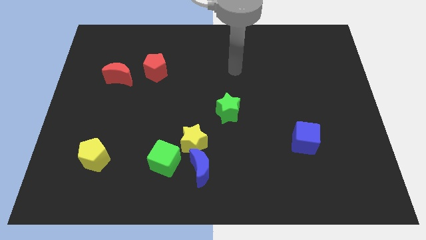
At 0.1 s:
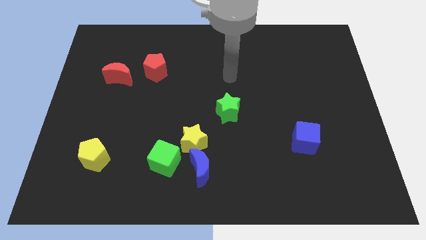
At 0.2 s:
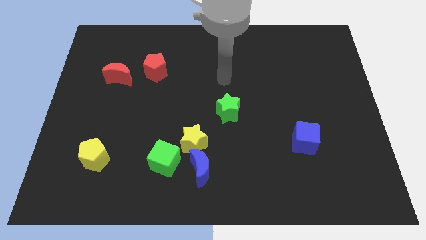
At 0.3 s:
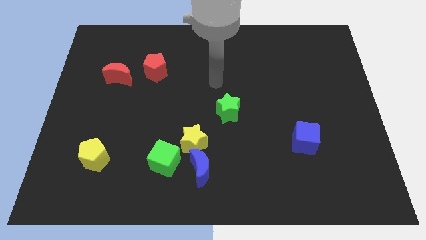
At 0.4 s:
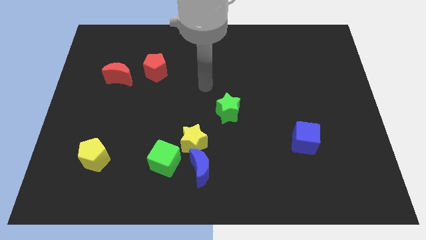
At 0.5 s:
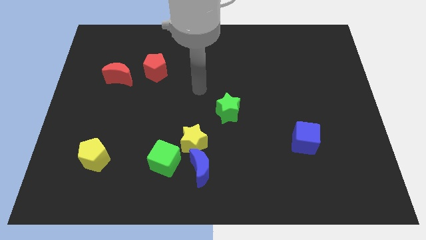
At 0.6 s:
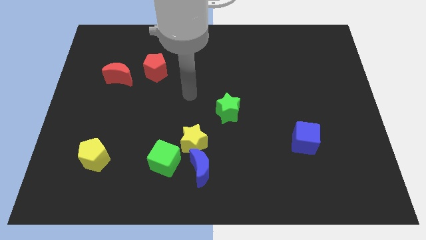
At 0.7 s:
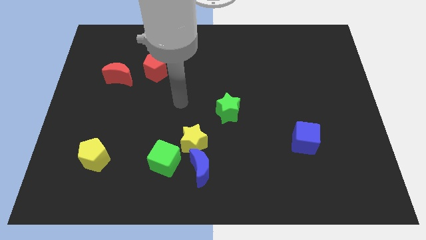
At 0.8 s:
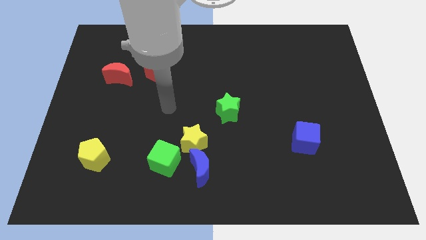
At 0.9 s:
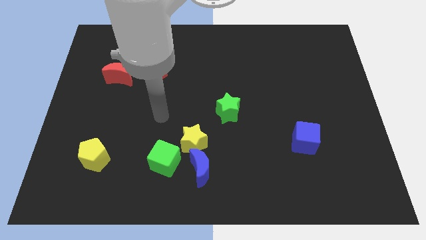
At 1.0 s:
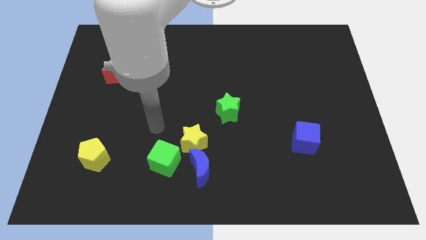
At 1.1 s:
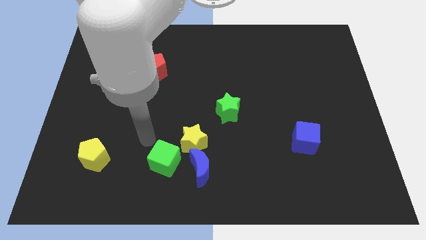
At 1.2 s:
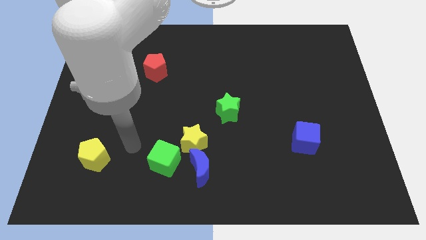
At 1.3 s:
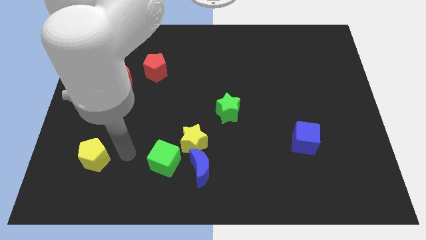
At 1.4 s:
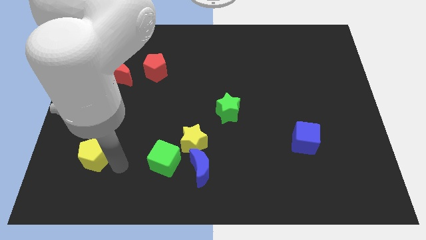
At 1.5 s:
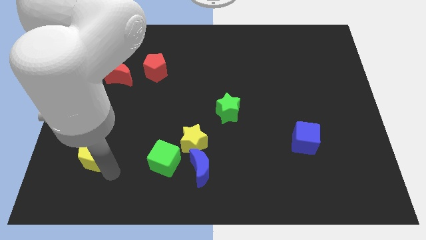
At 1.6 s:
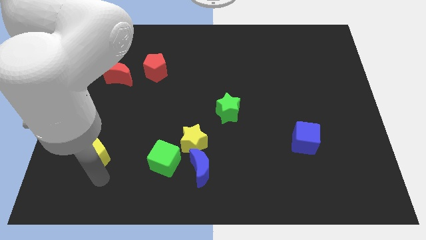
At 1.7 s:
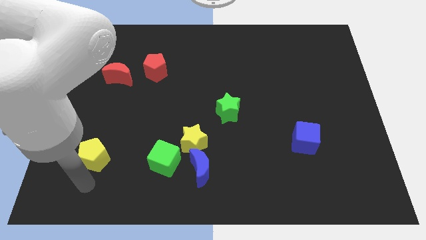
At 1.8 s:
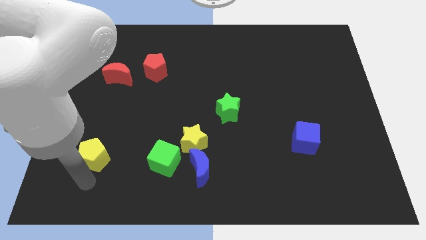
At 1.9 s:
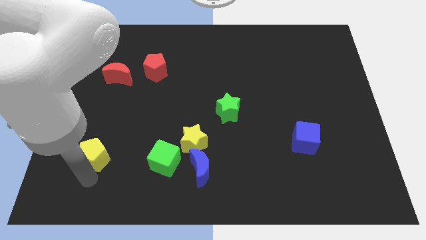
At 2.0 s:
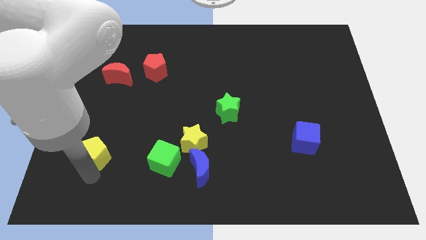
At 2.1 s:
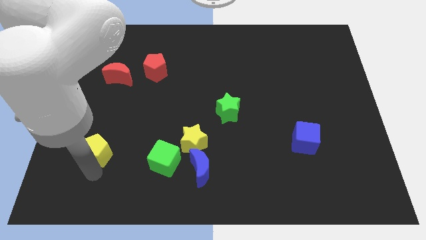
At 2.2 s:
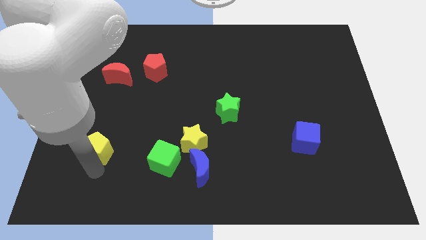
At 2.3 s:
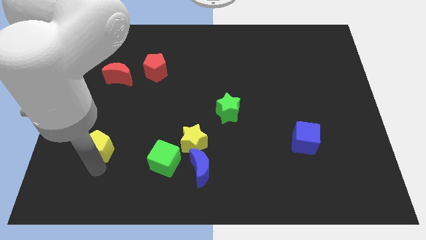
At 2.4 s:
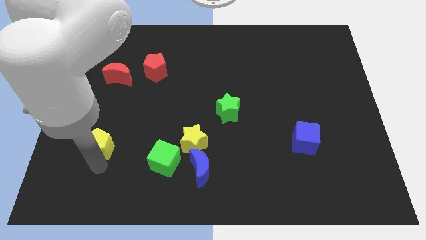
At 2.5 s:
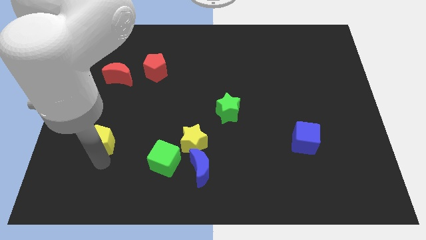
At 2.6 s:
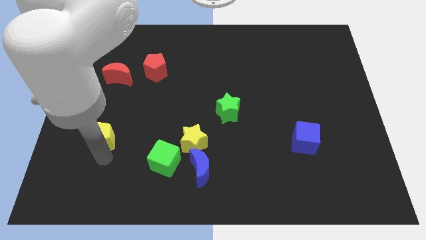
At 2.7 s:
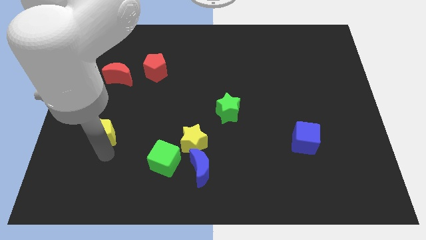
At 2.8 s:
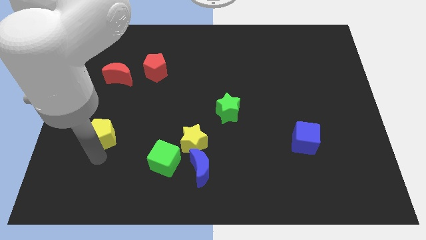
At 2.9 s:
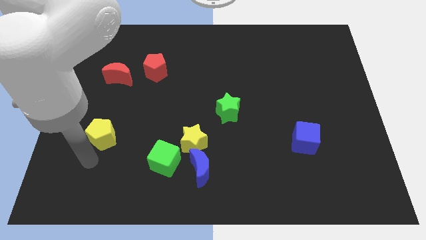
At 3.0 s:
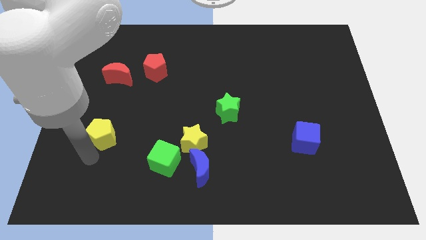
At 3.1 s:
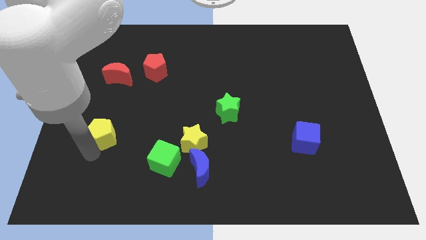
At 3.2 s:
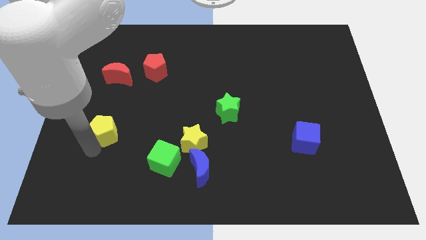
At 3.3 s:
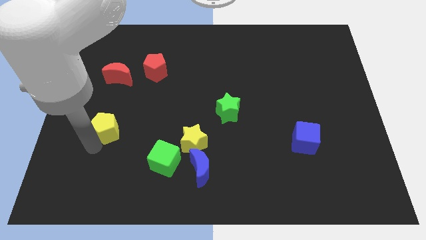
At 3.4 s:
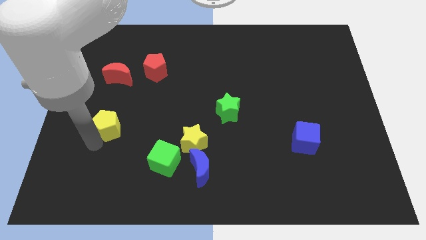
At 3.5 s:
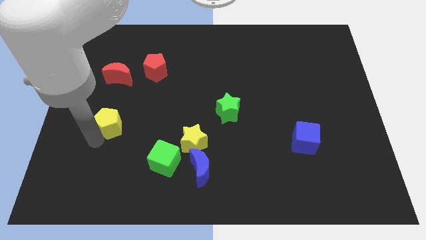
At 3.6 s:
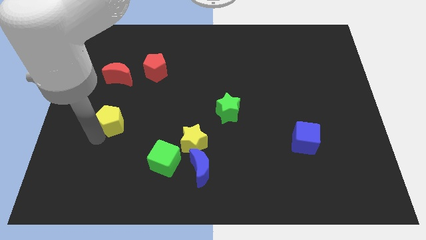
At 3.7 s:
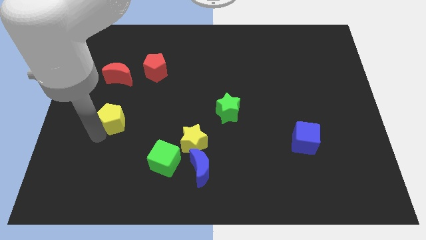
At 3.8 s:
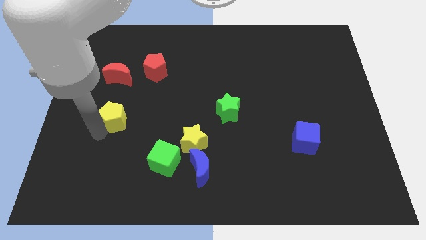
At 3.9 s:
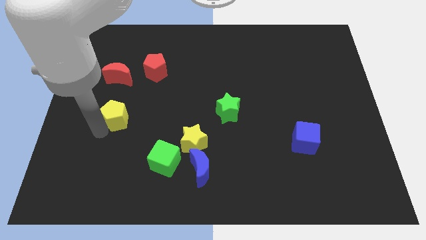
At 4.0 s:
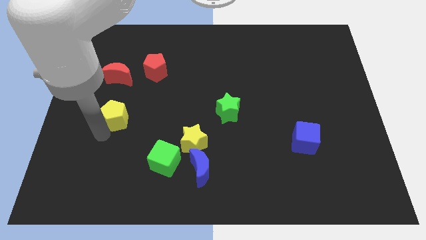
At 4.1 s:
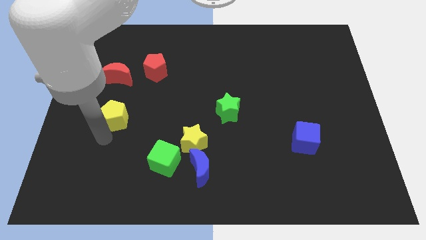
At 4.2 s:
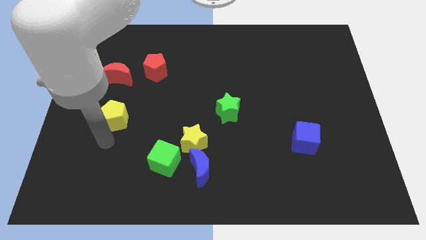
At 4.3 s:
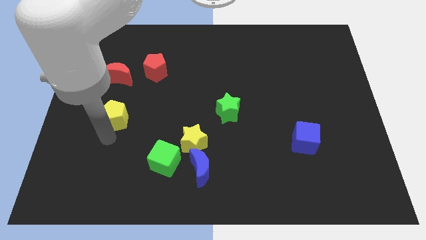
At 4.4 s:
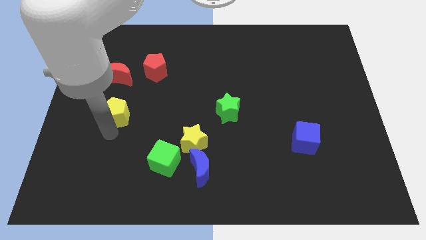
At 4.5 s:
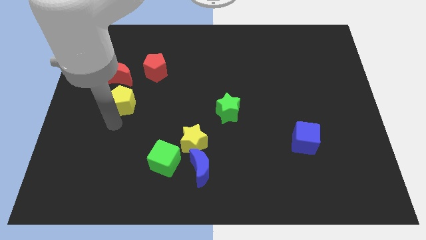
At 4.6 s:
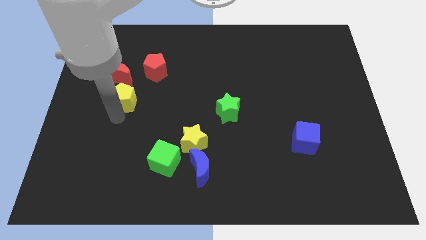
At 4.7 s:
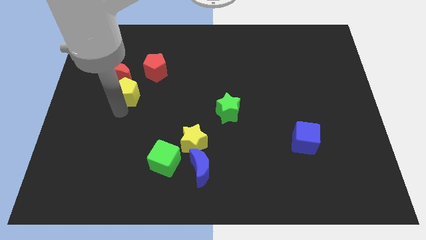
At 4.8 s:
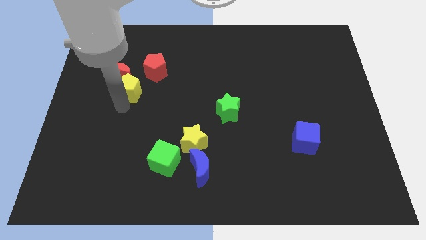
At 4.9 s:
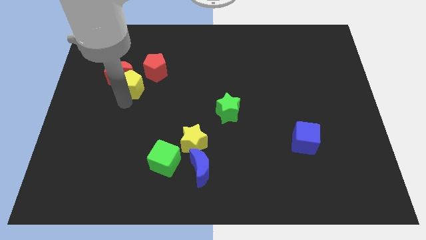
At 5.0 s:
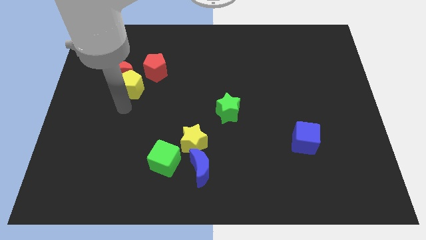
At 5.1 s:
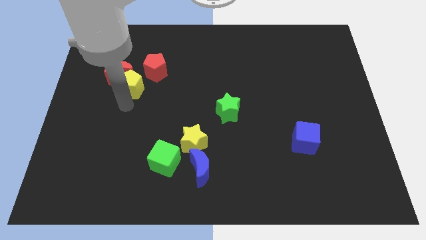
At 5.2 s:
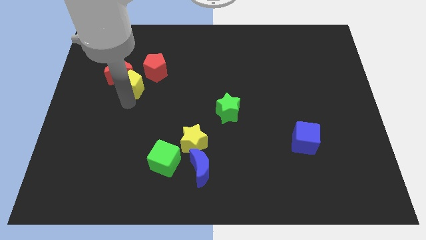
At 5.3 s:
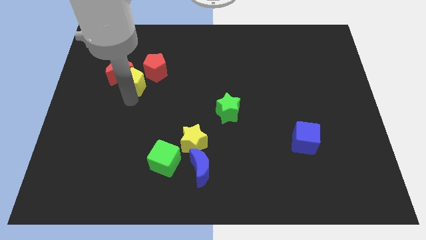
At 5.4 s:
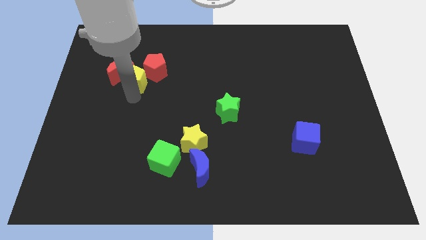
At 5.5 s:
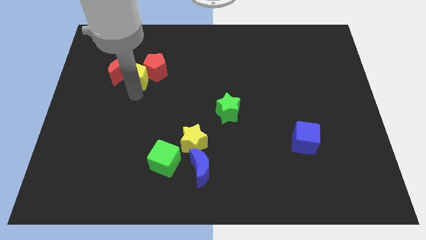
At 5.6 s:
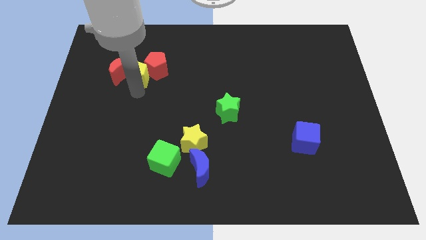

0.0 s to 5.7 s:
move the yellow pentagon diagonally up and to the right of the red moon

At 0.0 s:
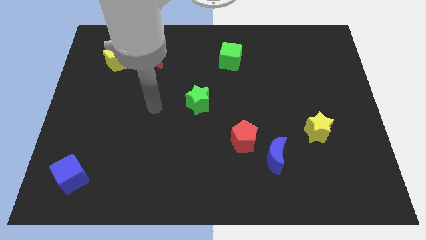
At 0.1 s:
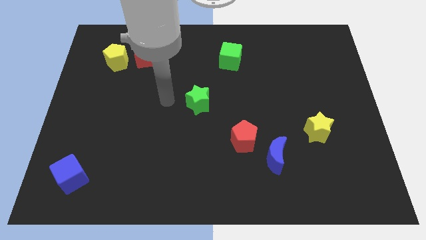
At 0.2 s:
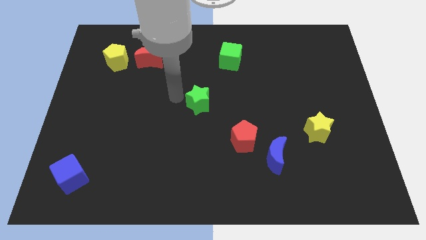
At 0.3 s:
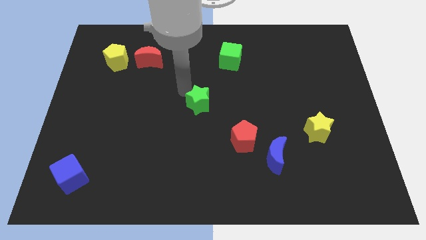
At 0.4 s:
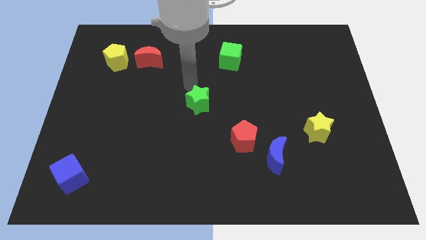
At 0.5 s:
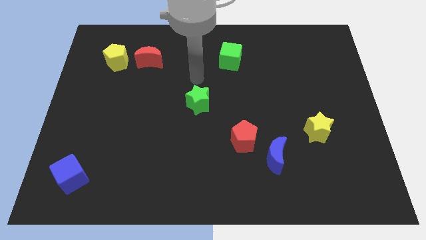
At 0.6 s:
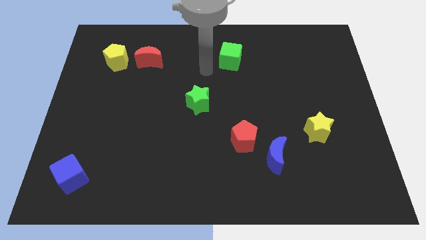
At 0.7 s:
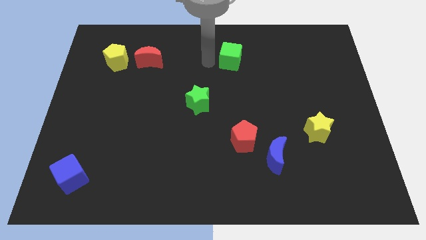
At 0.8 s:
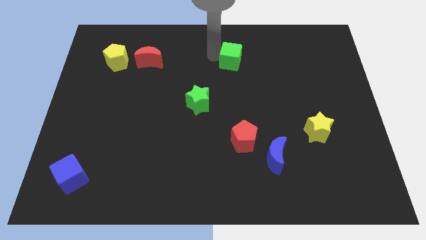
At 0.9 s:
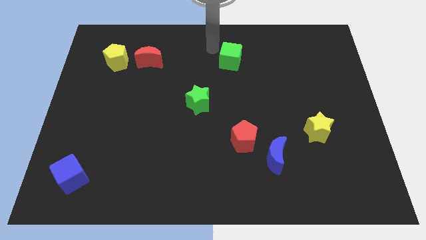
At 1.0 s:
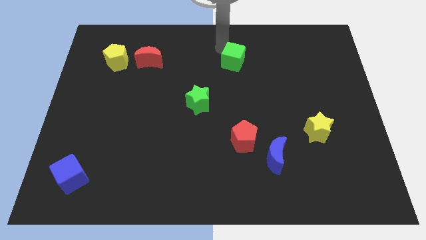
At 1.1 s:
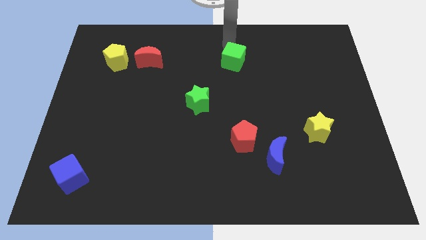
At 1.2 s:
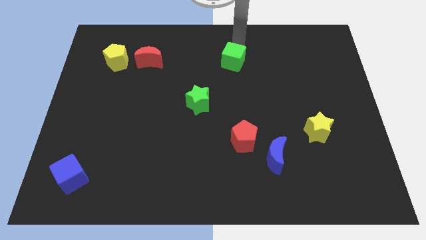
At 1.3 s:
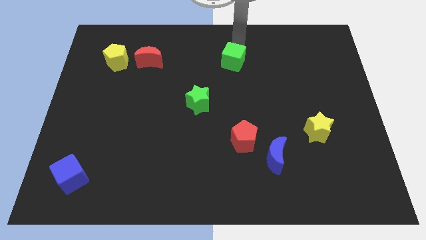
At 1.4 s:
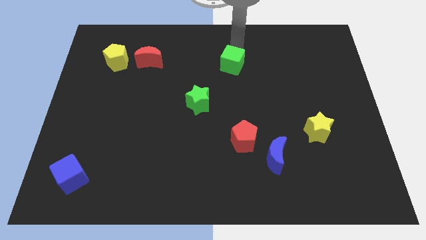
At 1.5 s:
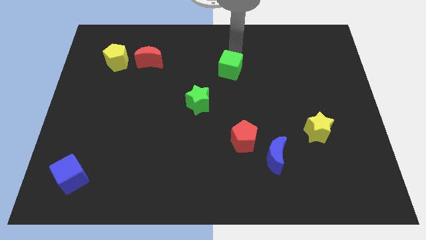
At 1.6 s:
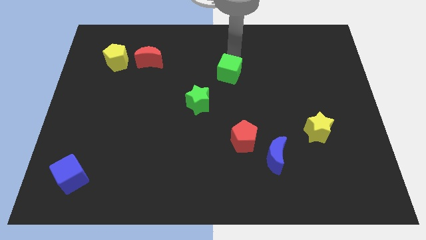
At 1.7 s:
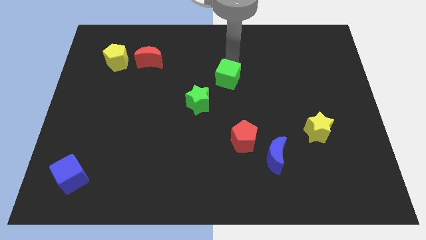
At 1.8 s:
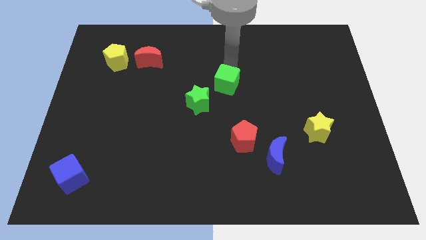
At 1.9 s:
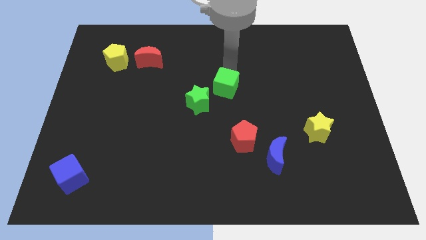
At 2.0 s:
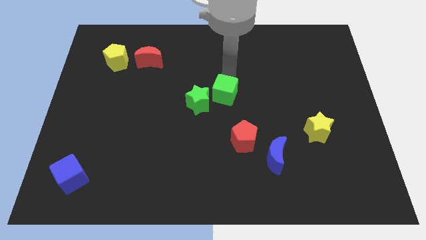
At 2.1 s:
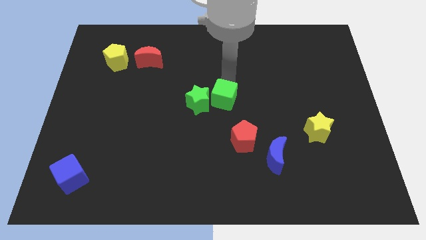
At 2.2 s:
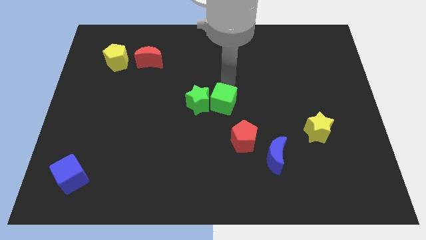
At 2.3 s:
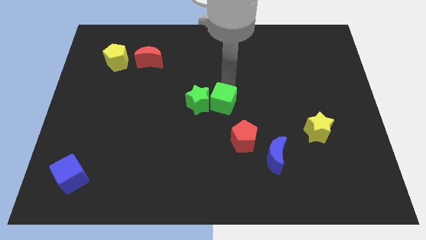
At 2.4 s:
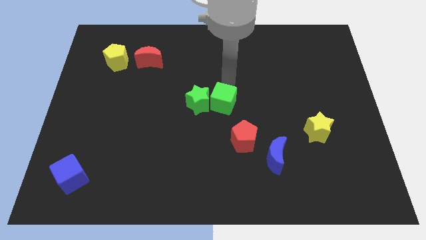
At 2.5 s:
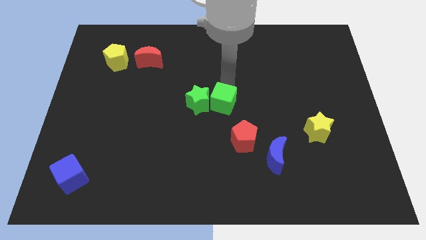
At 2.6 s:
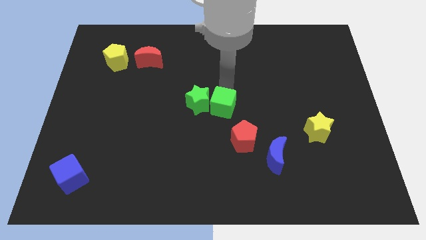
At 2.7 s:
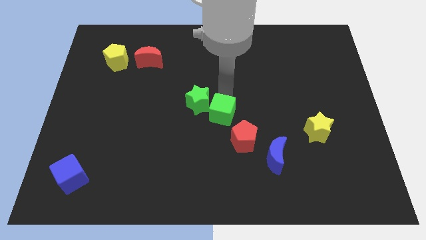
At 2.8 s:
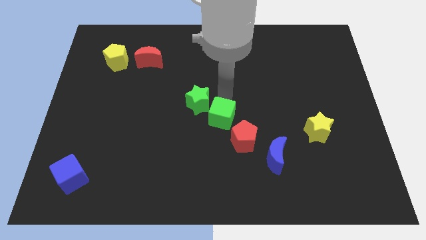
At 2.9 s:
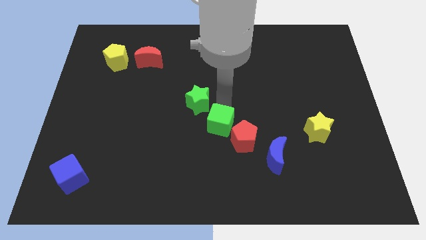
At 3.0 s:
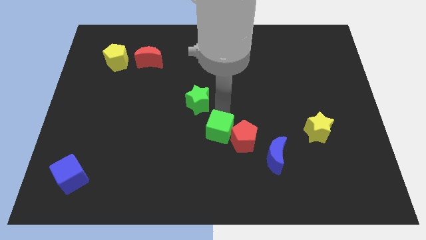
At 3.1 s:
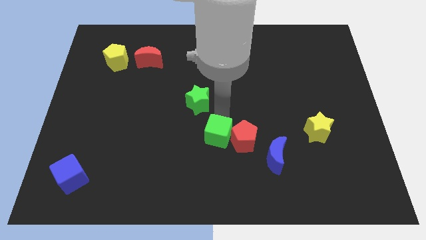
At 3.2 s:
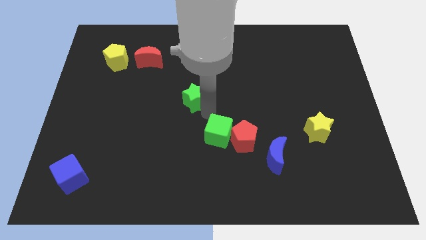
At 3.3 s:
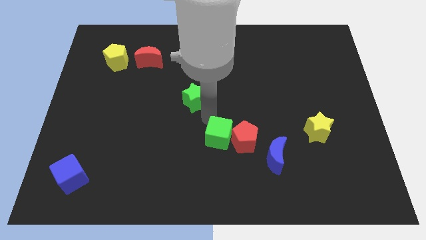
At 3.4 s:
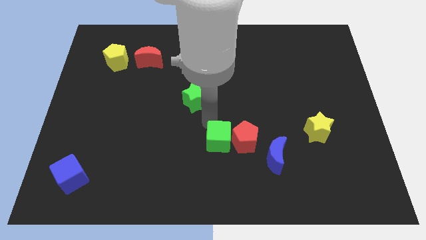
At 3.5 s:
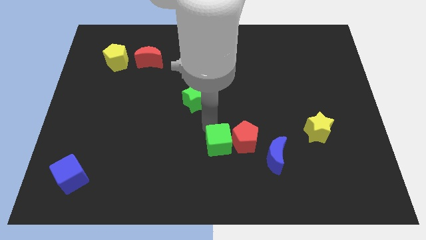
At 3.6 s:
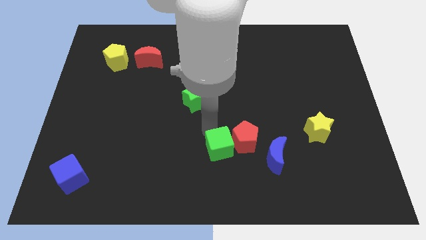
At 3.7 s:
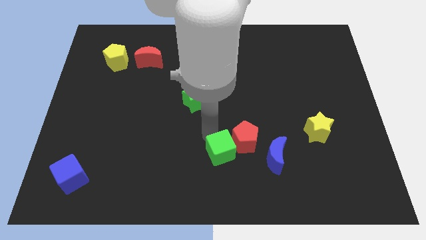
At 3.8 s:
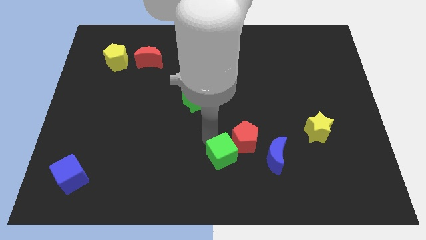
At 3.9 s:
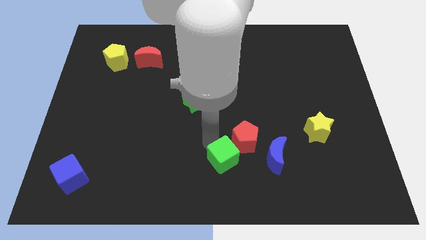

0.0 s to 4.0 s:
push the green cube below the red pentagon
